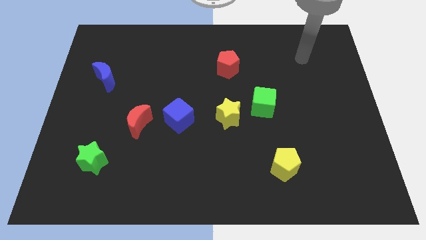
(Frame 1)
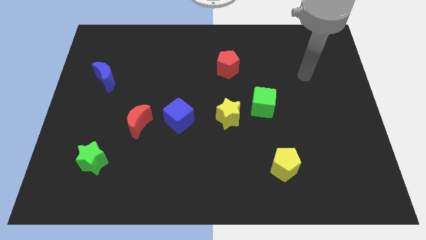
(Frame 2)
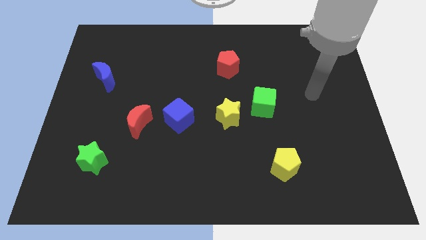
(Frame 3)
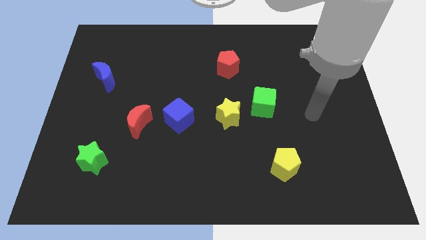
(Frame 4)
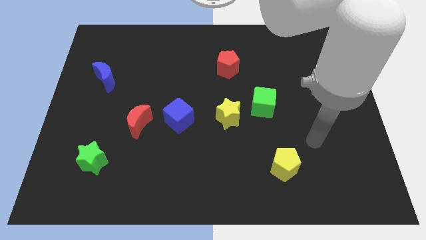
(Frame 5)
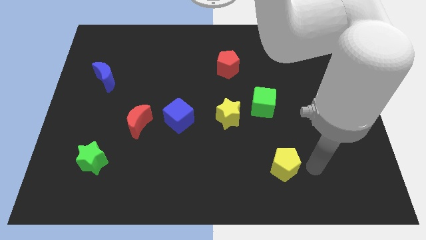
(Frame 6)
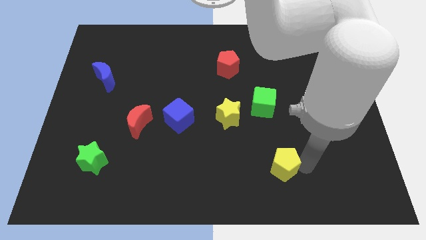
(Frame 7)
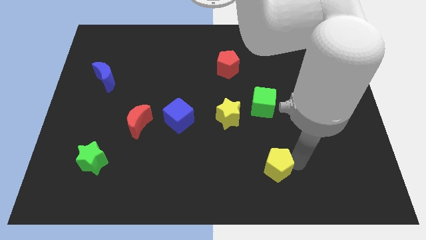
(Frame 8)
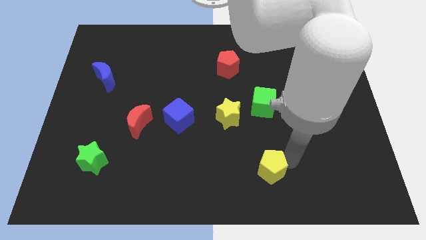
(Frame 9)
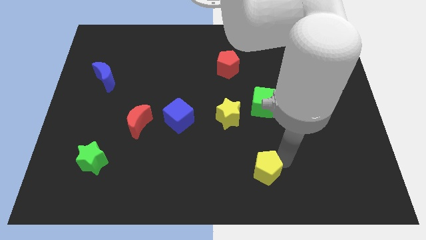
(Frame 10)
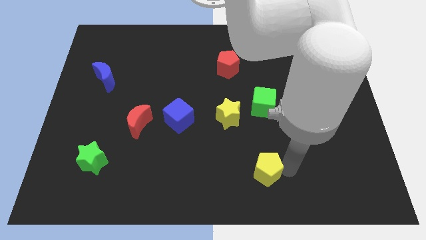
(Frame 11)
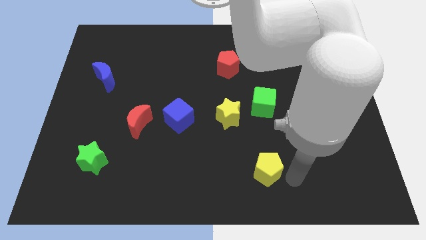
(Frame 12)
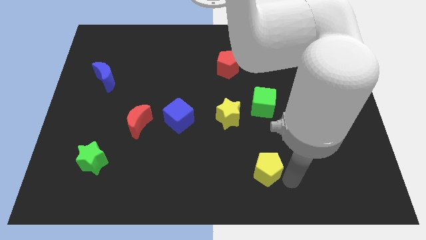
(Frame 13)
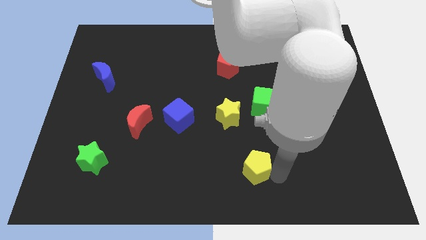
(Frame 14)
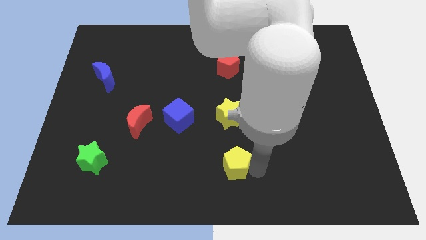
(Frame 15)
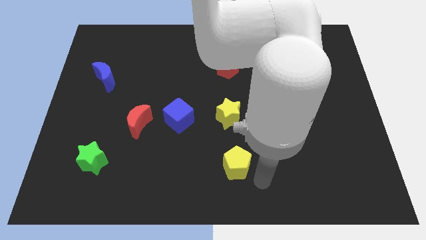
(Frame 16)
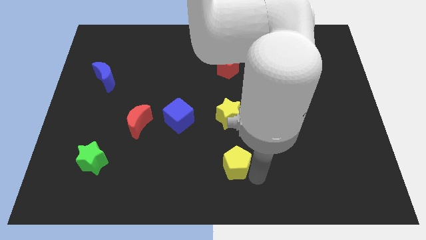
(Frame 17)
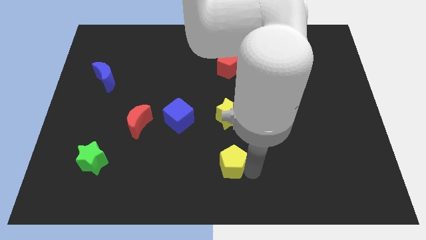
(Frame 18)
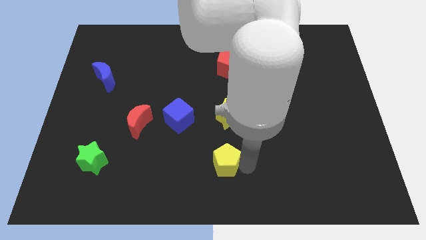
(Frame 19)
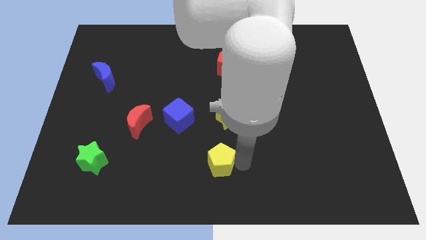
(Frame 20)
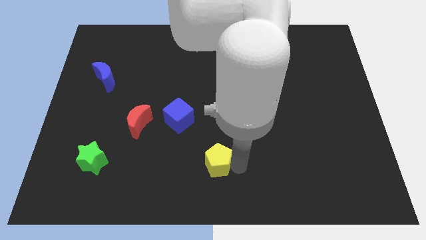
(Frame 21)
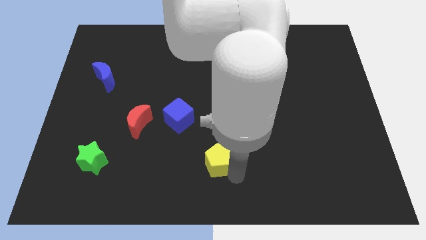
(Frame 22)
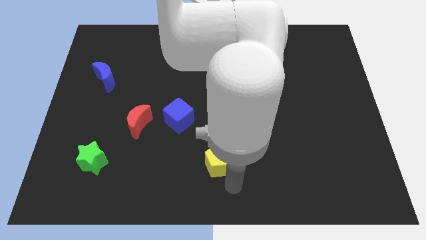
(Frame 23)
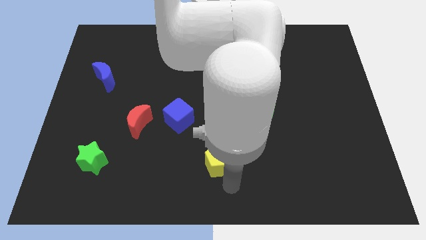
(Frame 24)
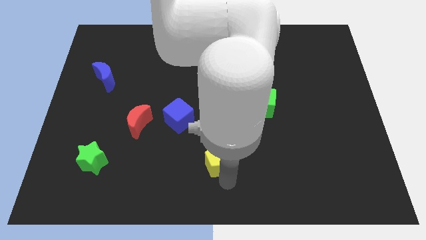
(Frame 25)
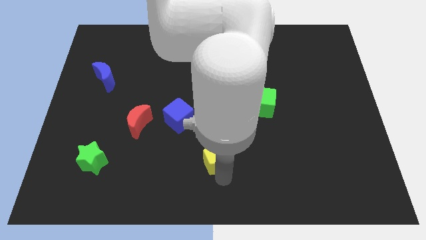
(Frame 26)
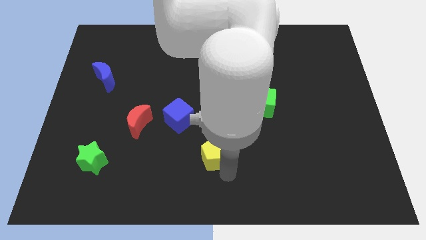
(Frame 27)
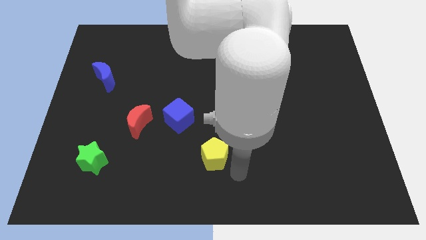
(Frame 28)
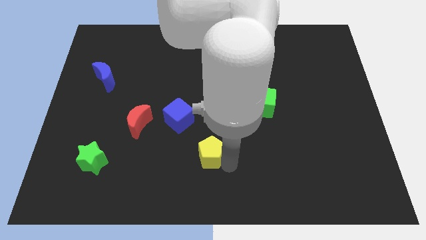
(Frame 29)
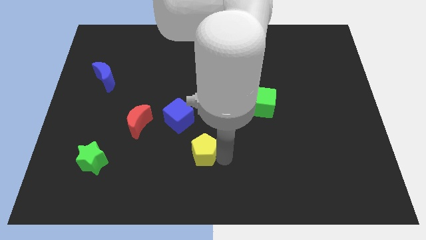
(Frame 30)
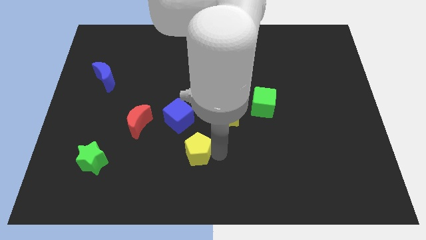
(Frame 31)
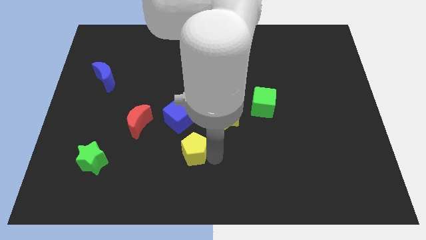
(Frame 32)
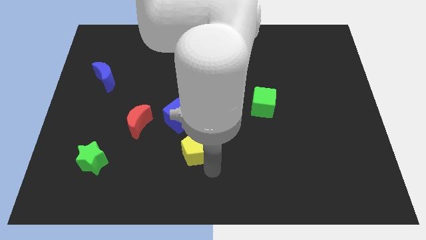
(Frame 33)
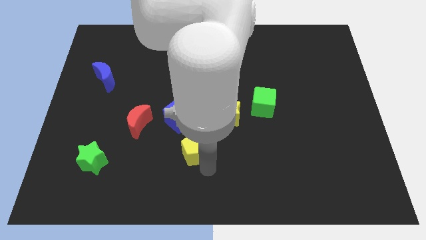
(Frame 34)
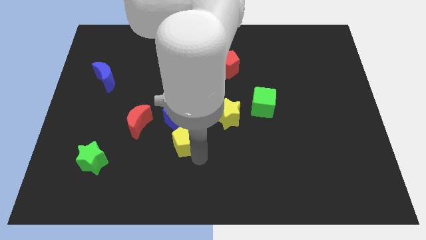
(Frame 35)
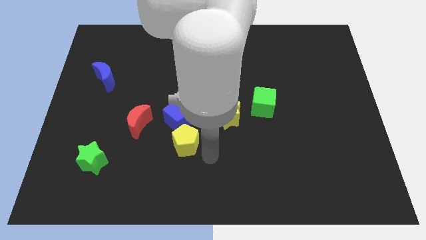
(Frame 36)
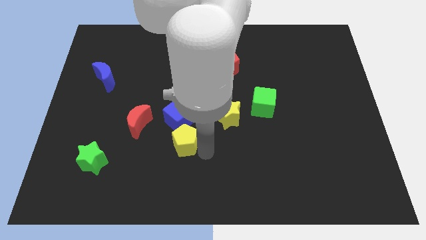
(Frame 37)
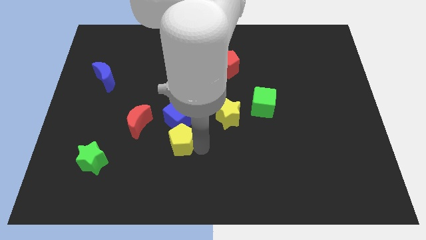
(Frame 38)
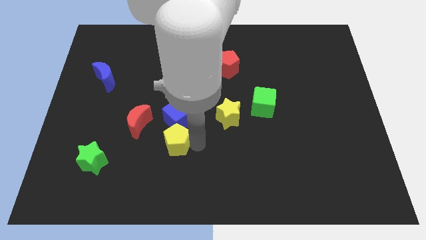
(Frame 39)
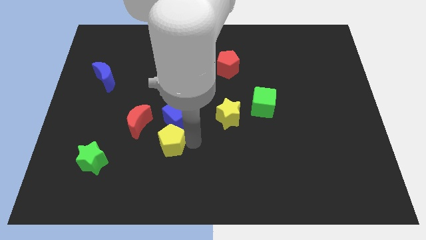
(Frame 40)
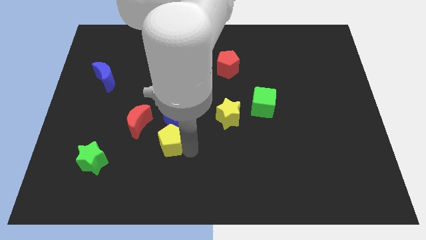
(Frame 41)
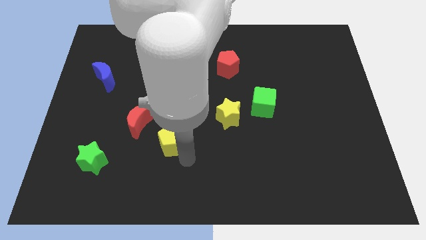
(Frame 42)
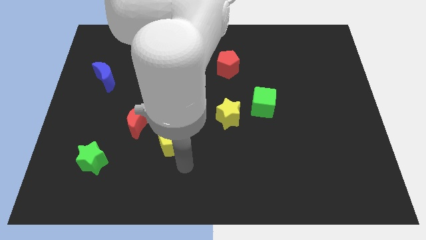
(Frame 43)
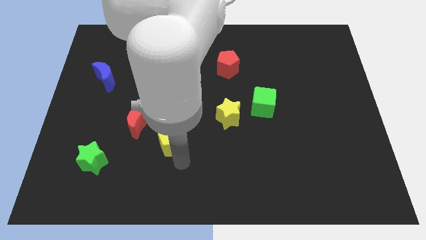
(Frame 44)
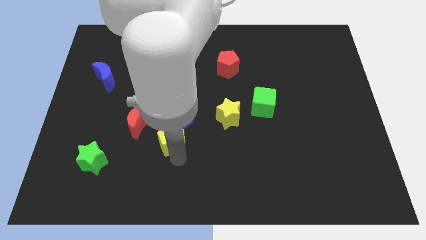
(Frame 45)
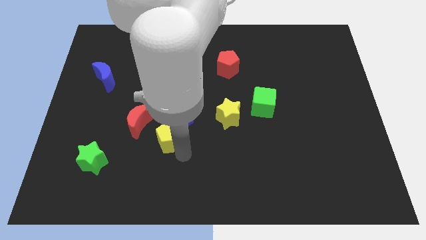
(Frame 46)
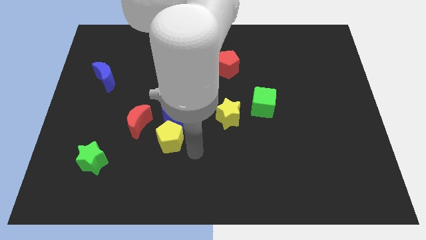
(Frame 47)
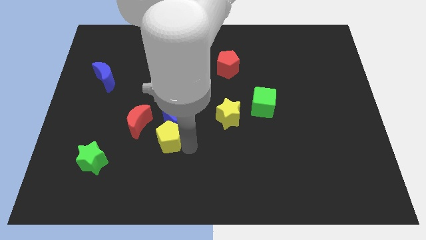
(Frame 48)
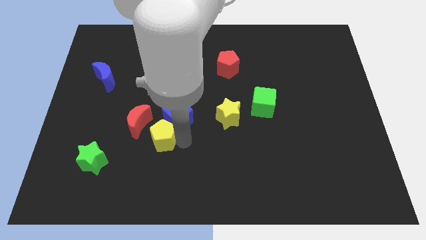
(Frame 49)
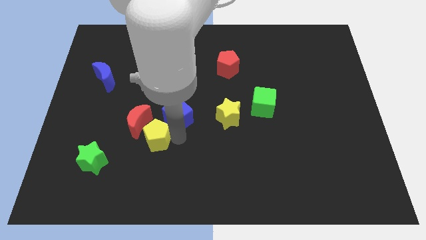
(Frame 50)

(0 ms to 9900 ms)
push the yellow pentagon close to the red moon

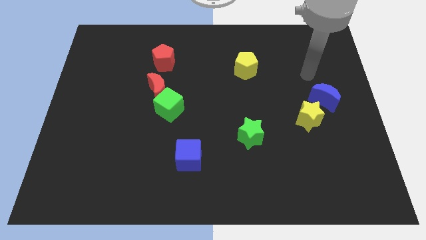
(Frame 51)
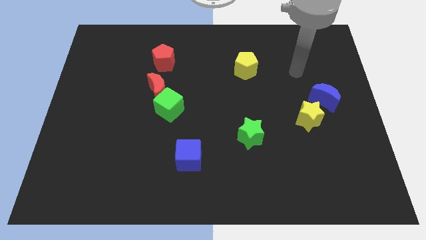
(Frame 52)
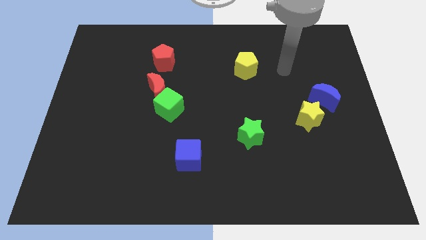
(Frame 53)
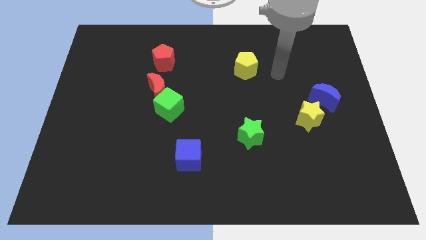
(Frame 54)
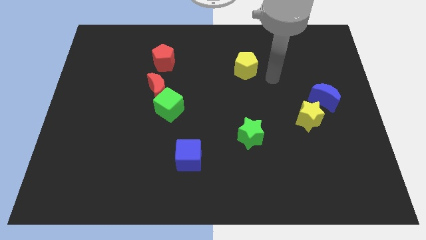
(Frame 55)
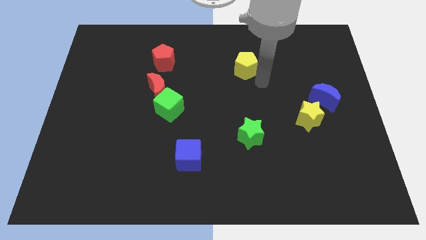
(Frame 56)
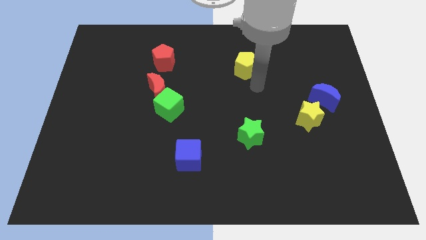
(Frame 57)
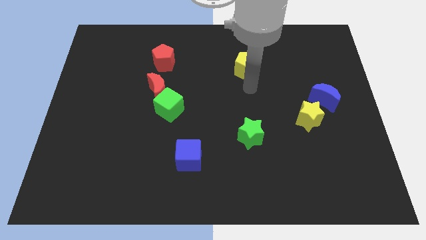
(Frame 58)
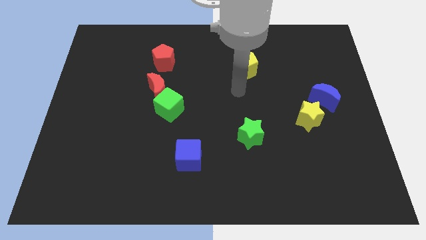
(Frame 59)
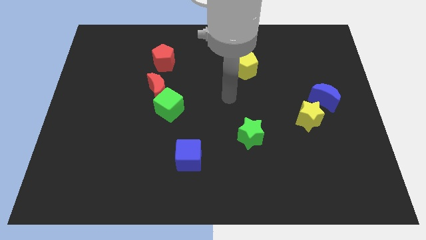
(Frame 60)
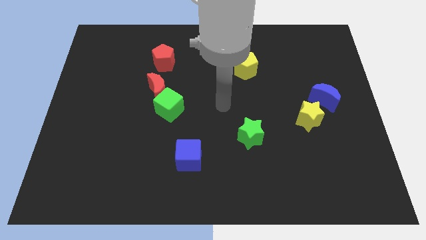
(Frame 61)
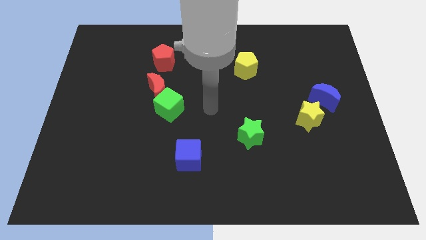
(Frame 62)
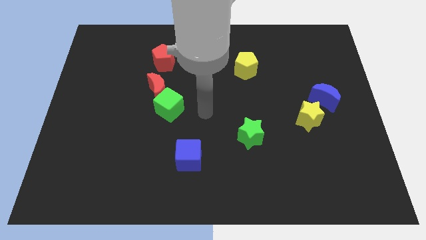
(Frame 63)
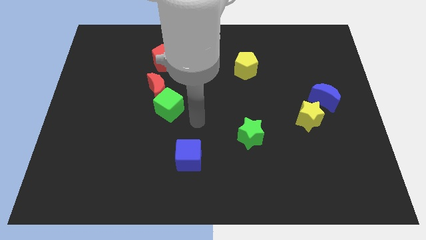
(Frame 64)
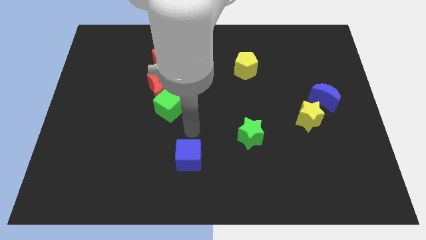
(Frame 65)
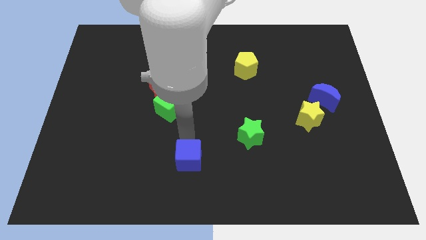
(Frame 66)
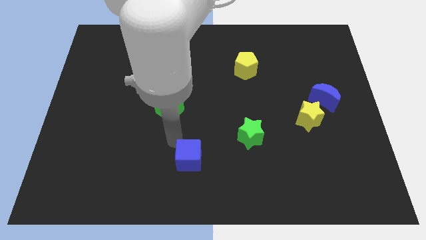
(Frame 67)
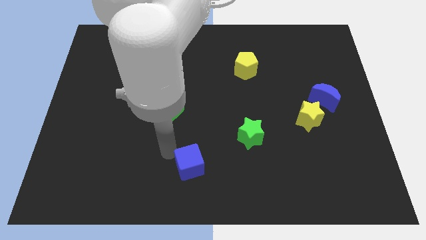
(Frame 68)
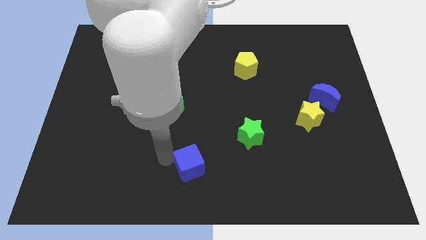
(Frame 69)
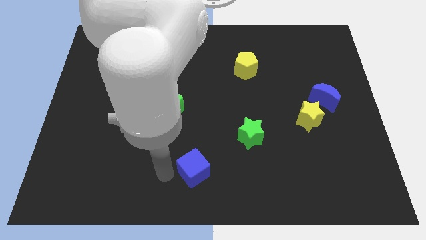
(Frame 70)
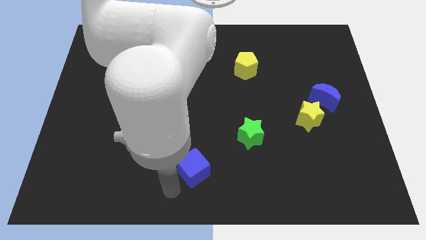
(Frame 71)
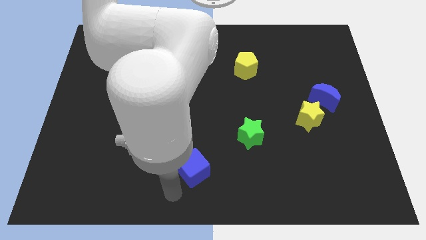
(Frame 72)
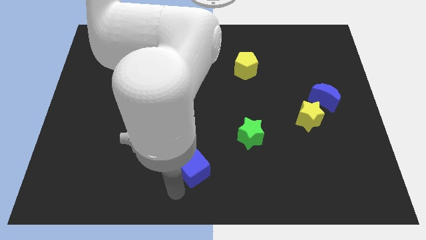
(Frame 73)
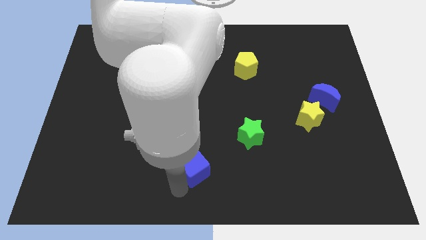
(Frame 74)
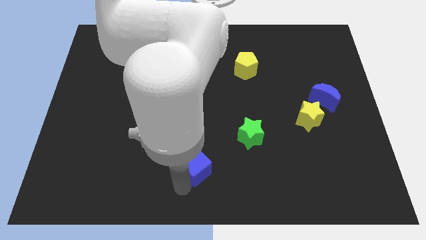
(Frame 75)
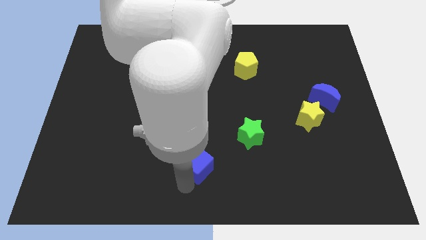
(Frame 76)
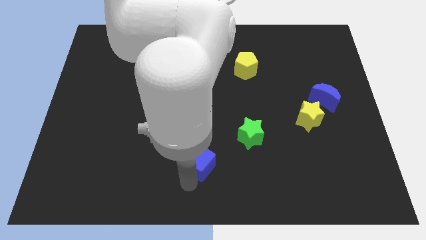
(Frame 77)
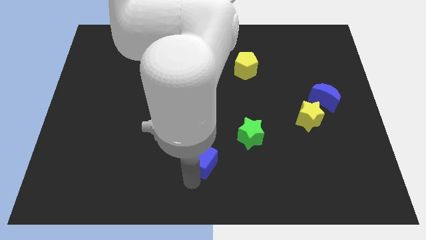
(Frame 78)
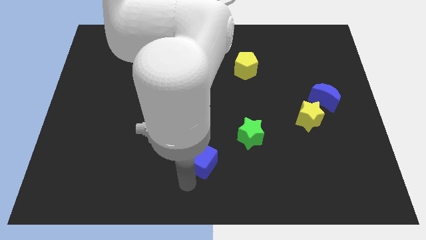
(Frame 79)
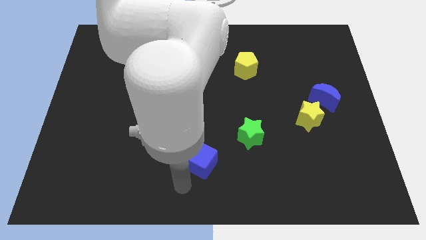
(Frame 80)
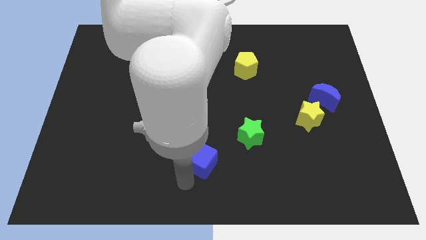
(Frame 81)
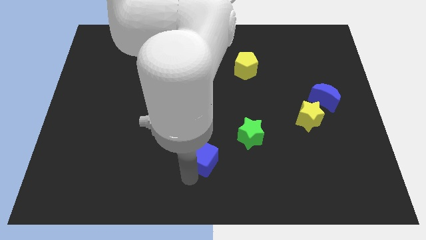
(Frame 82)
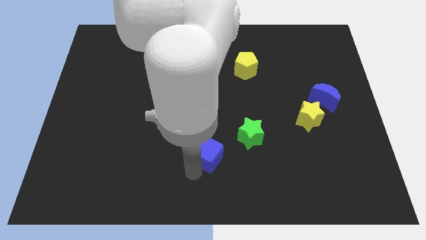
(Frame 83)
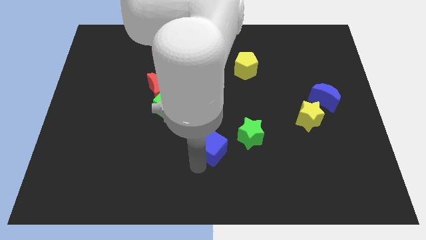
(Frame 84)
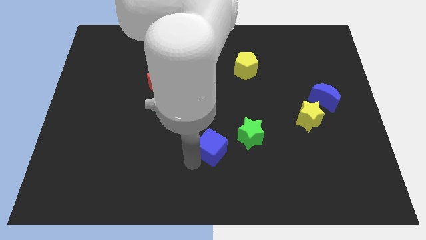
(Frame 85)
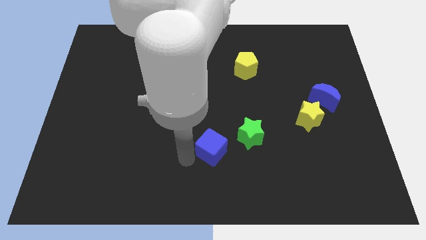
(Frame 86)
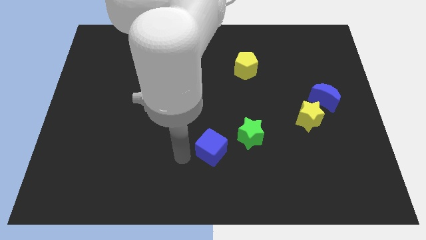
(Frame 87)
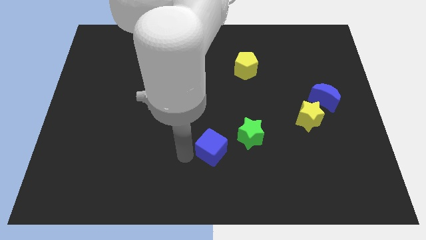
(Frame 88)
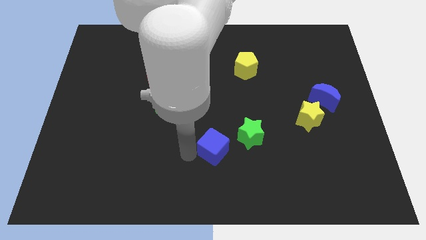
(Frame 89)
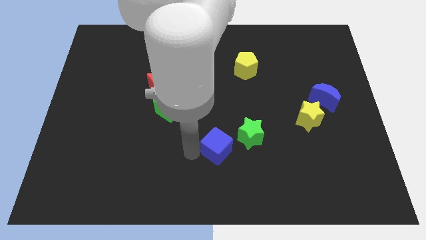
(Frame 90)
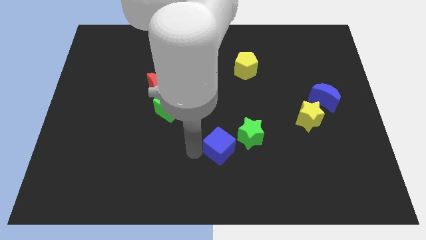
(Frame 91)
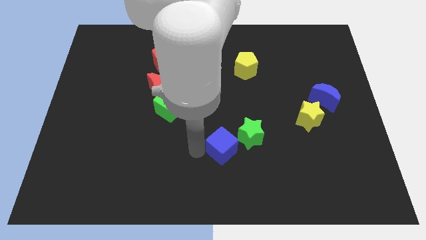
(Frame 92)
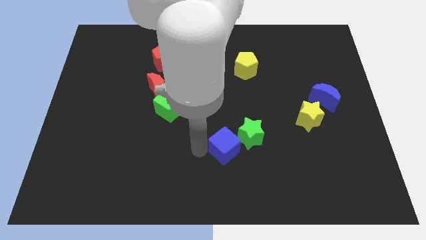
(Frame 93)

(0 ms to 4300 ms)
move the blue cube to the green star
